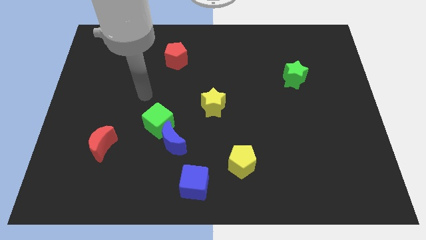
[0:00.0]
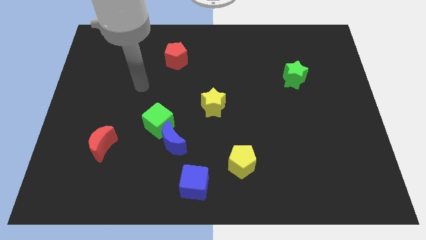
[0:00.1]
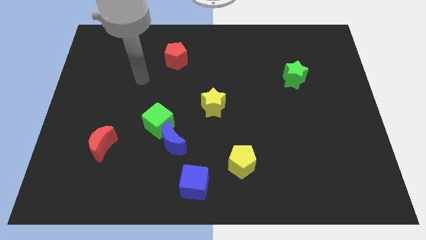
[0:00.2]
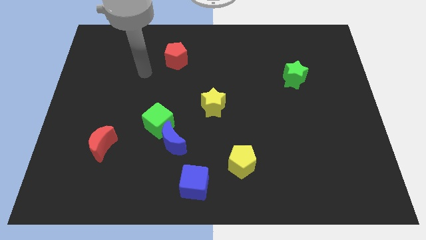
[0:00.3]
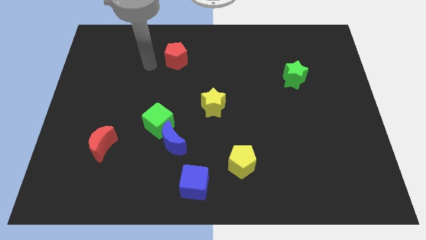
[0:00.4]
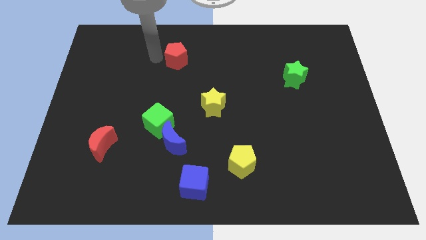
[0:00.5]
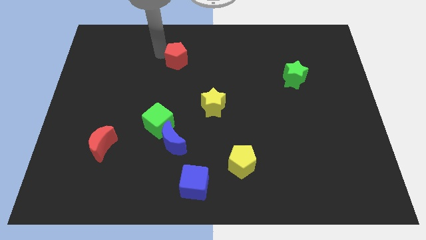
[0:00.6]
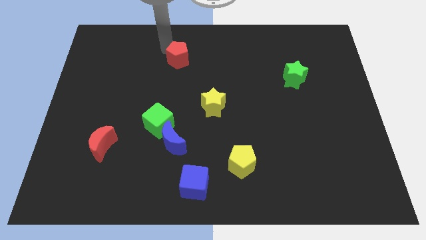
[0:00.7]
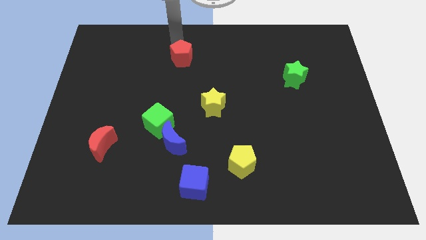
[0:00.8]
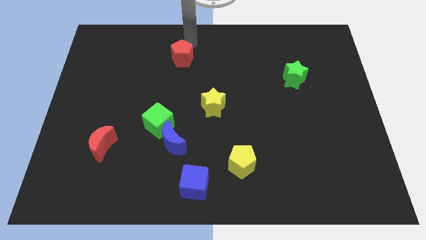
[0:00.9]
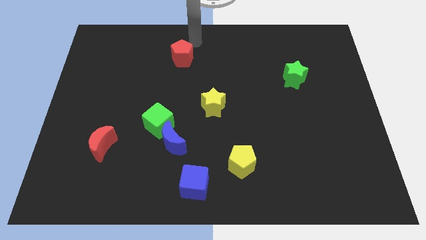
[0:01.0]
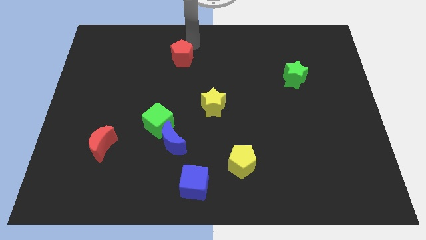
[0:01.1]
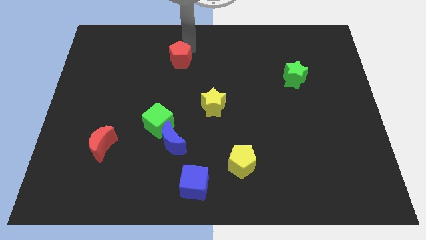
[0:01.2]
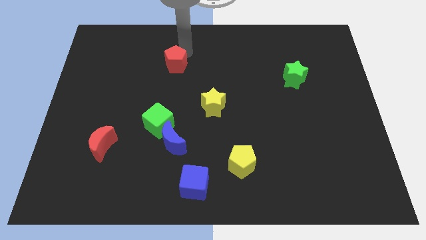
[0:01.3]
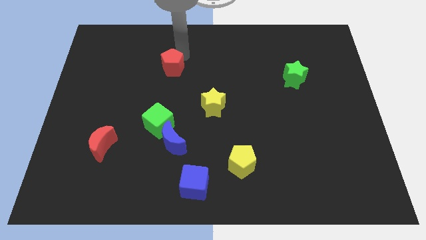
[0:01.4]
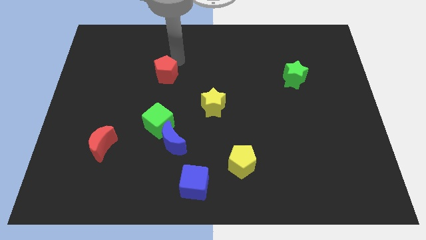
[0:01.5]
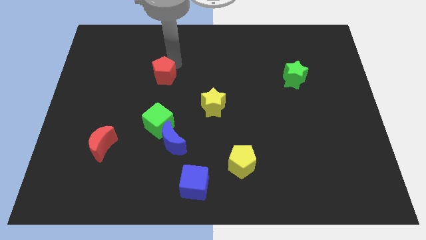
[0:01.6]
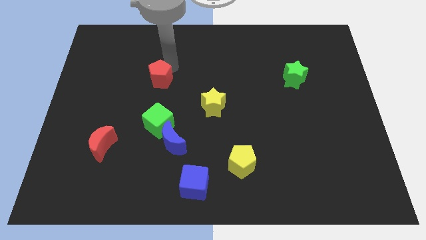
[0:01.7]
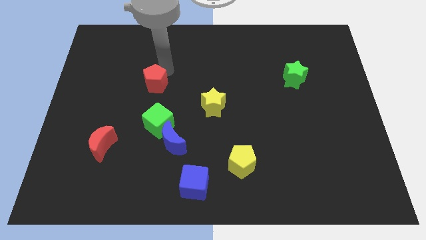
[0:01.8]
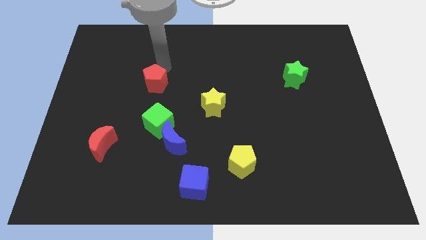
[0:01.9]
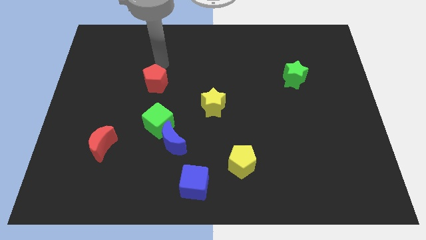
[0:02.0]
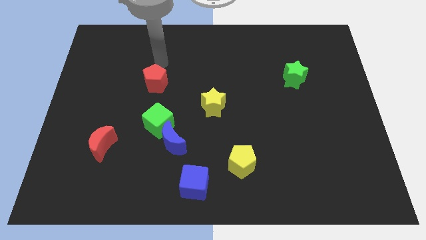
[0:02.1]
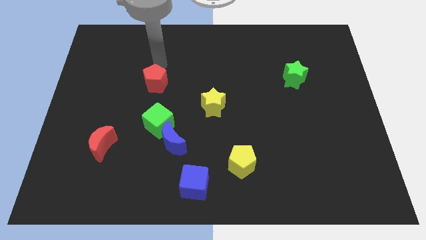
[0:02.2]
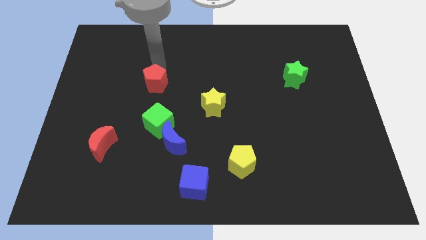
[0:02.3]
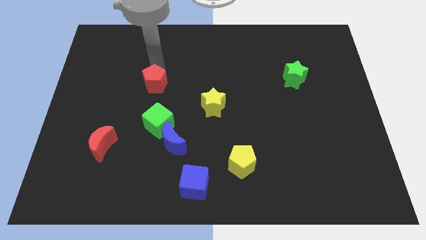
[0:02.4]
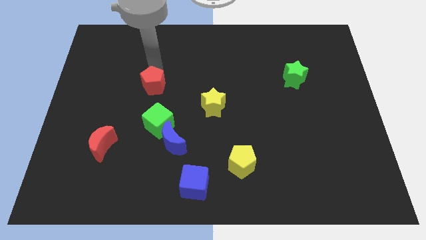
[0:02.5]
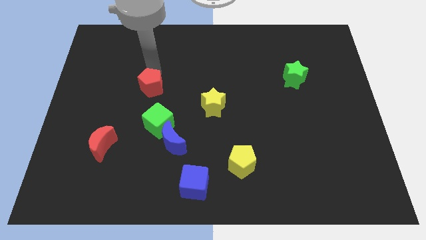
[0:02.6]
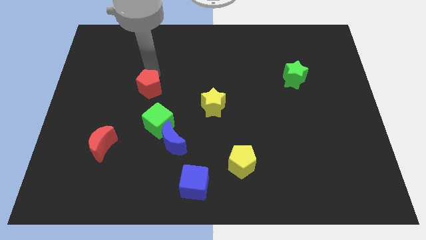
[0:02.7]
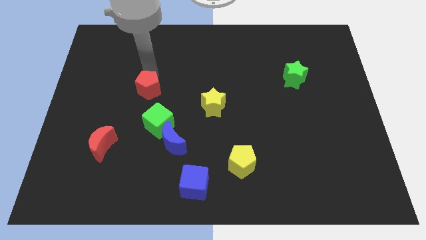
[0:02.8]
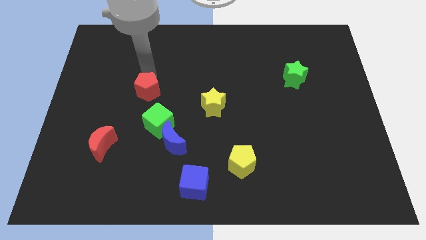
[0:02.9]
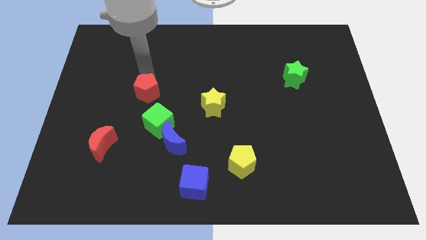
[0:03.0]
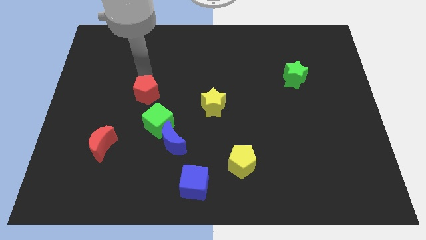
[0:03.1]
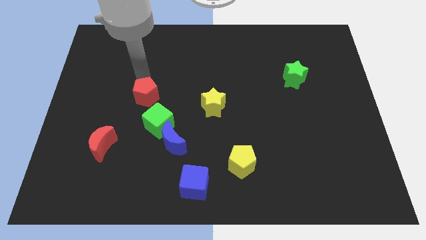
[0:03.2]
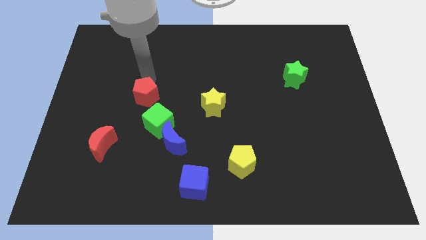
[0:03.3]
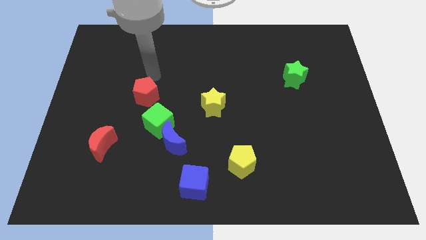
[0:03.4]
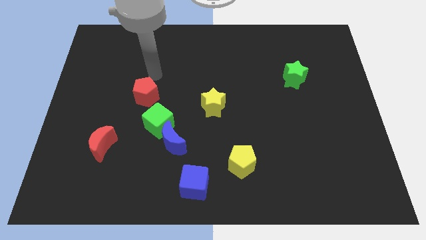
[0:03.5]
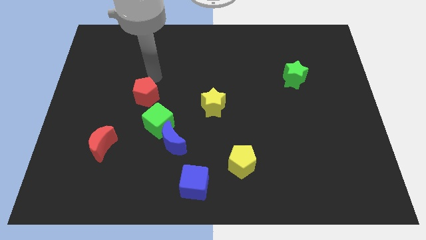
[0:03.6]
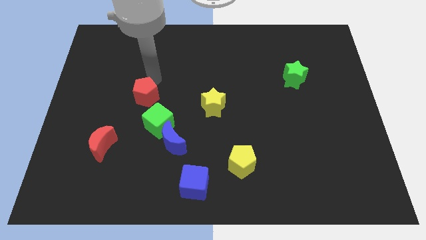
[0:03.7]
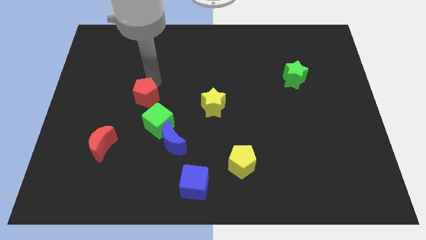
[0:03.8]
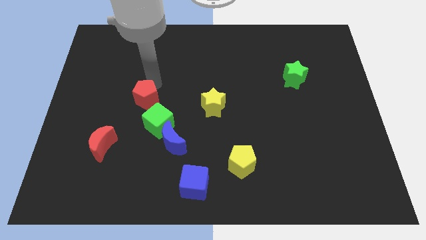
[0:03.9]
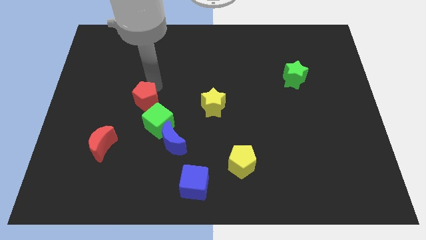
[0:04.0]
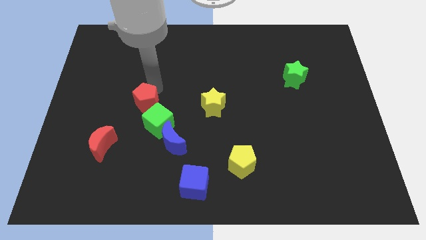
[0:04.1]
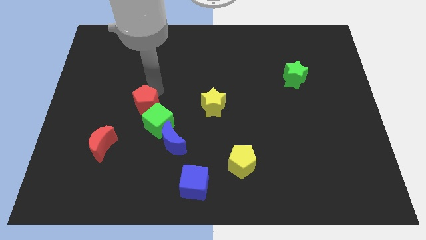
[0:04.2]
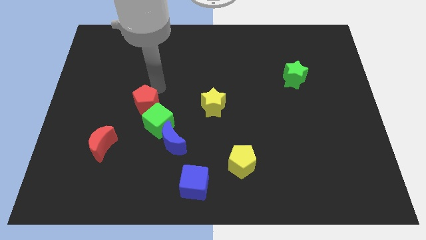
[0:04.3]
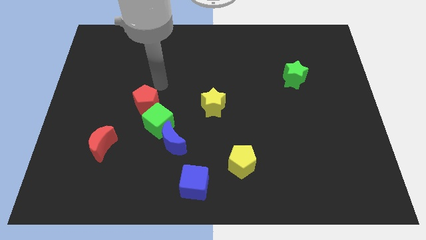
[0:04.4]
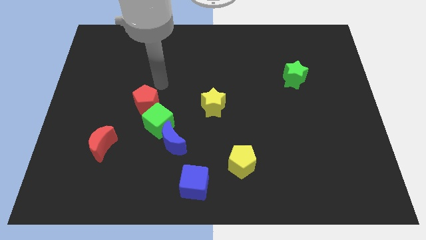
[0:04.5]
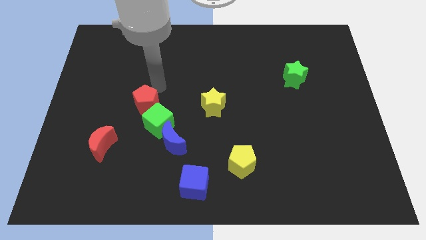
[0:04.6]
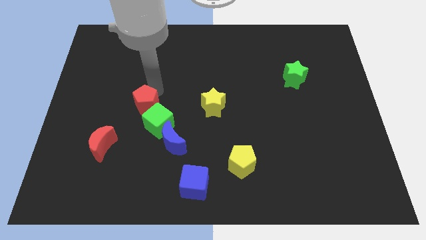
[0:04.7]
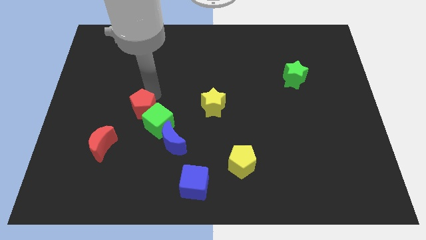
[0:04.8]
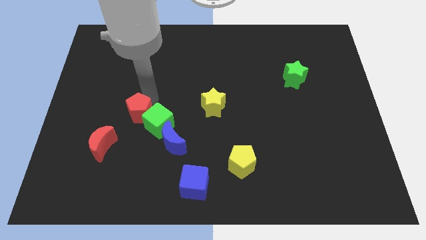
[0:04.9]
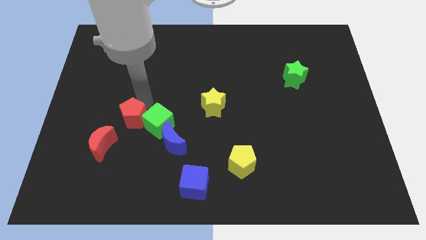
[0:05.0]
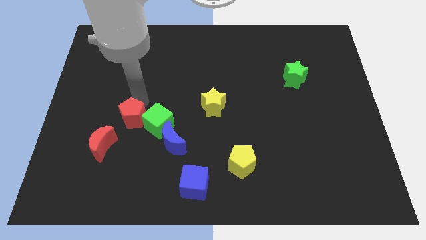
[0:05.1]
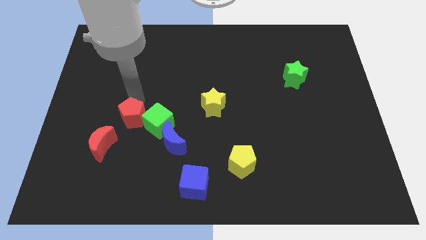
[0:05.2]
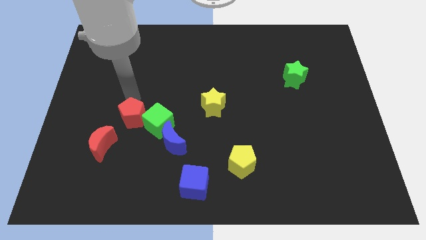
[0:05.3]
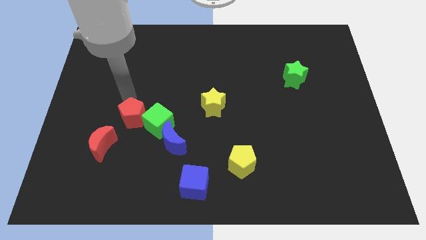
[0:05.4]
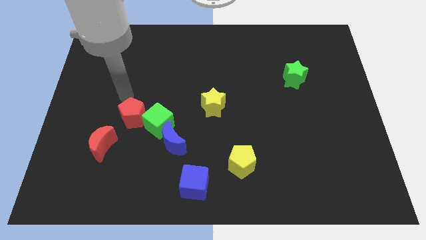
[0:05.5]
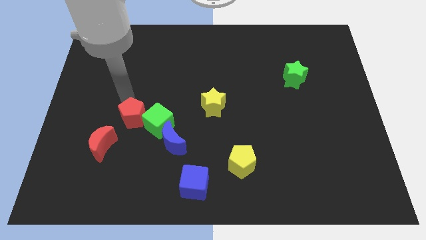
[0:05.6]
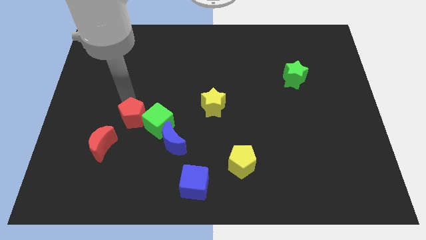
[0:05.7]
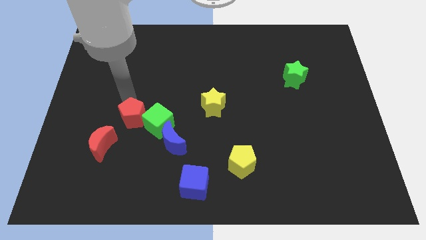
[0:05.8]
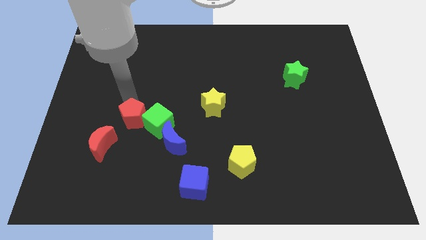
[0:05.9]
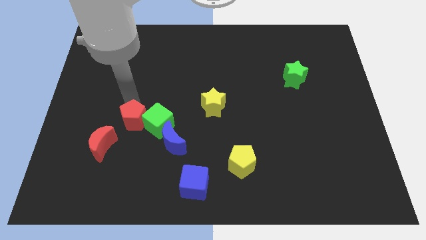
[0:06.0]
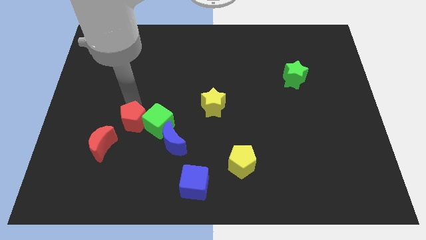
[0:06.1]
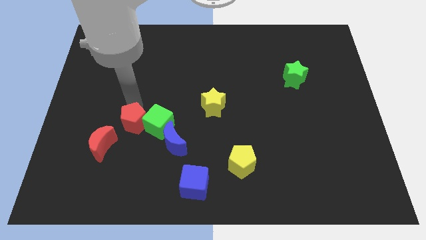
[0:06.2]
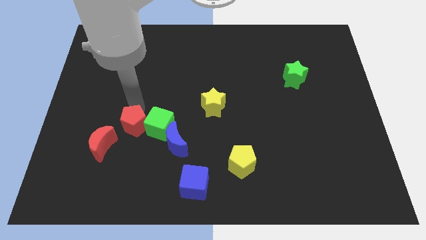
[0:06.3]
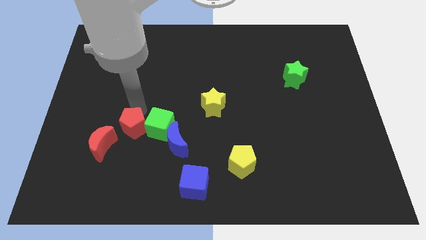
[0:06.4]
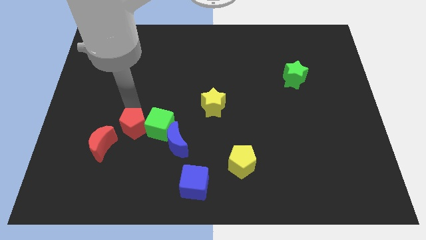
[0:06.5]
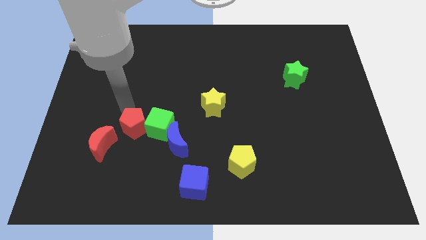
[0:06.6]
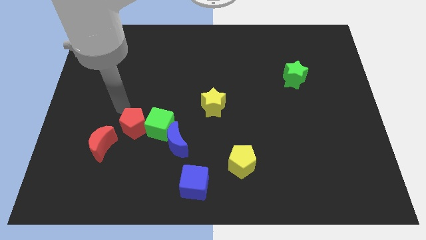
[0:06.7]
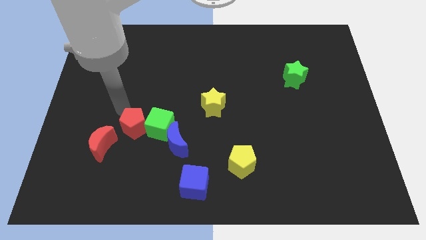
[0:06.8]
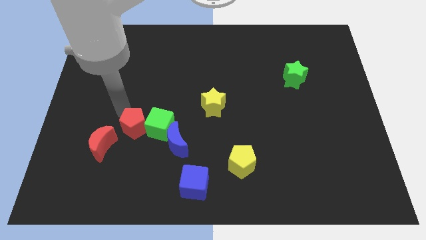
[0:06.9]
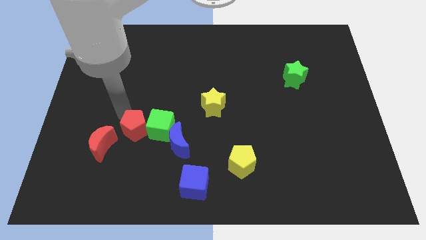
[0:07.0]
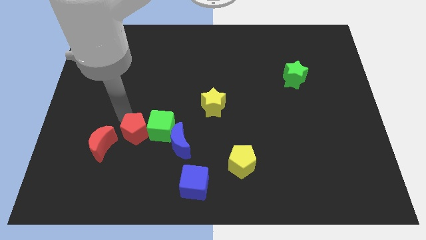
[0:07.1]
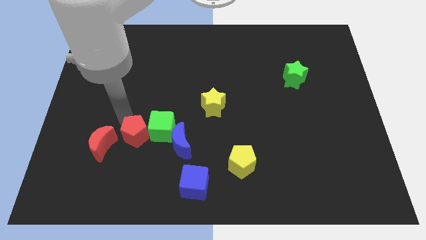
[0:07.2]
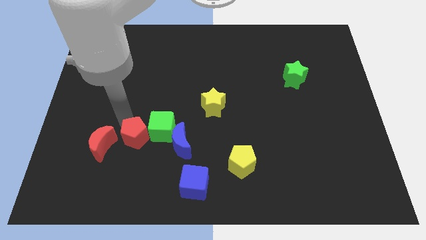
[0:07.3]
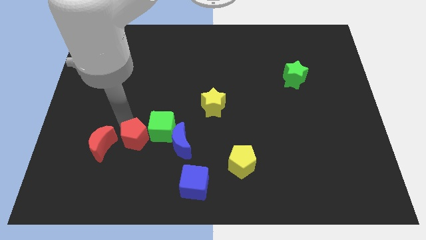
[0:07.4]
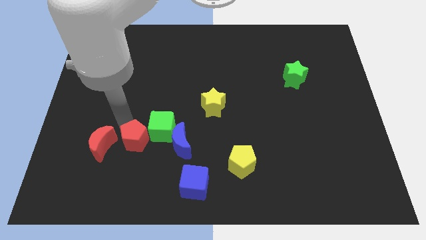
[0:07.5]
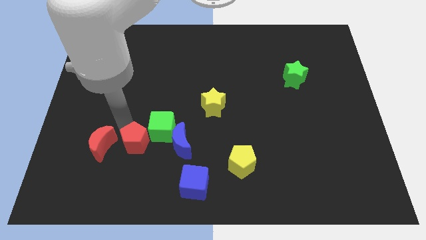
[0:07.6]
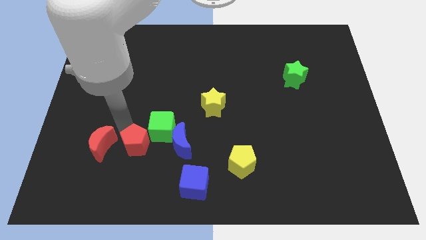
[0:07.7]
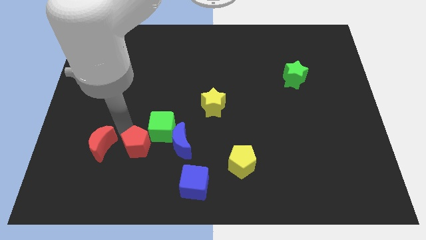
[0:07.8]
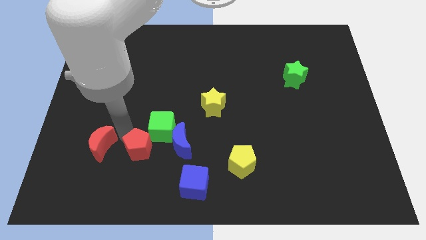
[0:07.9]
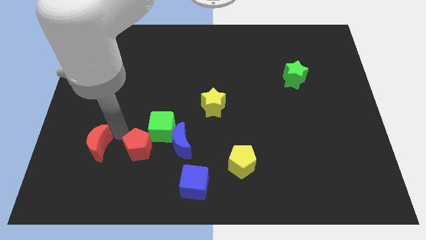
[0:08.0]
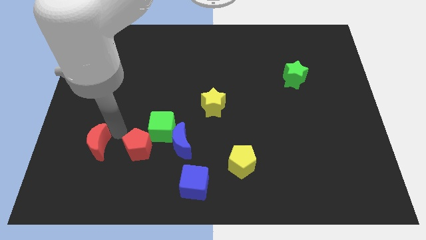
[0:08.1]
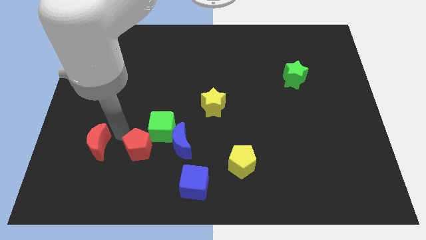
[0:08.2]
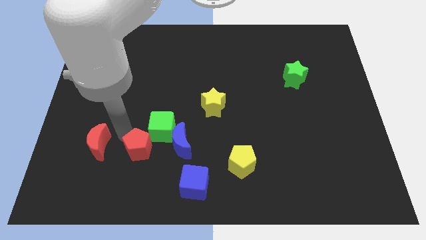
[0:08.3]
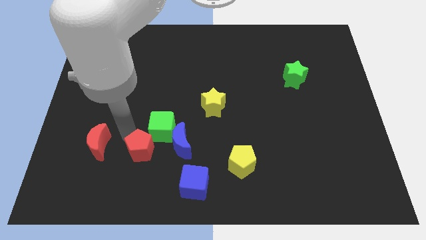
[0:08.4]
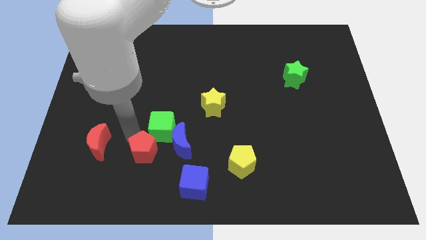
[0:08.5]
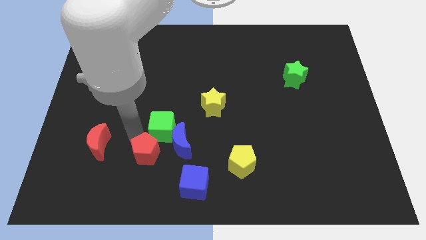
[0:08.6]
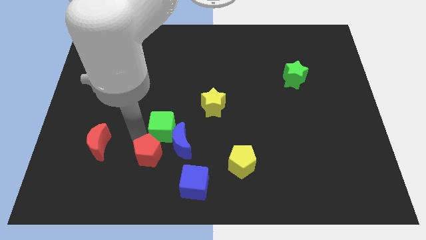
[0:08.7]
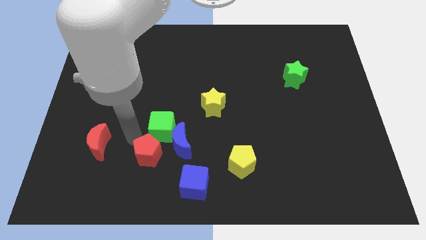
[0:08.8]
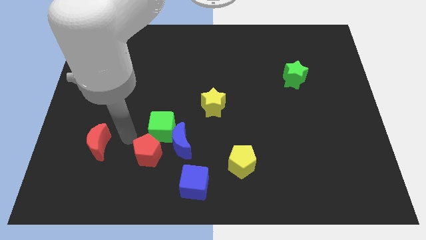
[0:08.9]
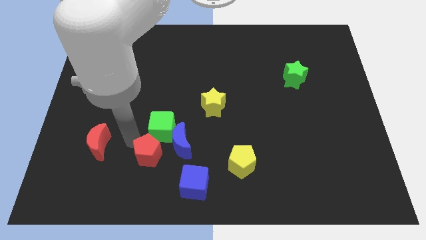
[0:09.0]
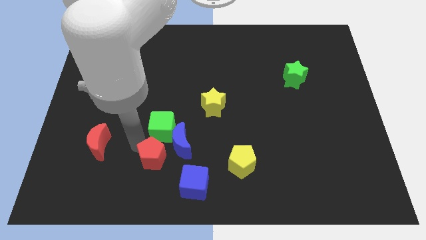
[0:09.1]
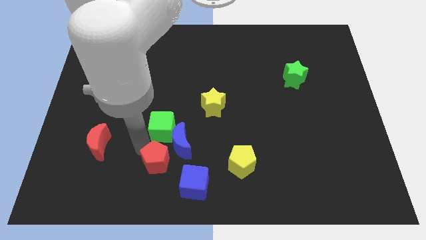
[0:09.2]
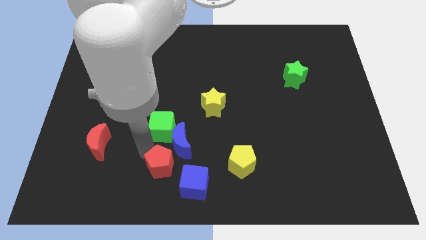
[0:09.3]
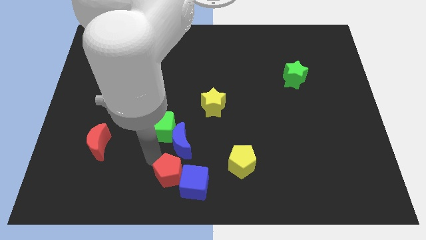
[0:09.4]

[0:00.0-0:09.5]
put the red pentagon towards the blue cube
